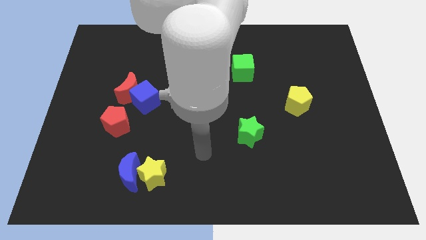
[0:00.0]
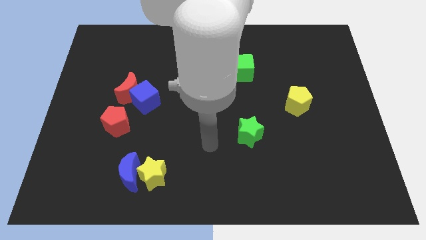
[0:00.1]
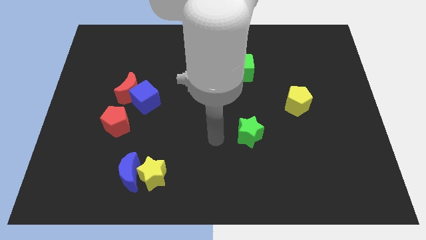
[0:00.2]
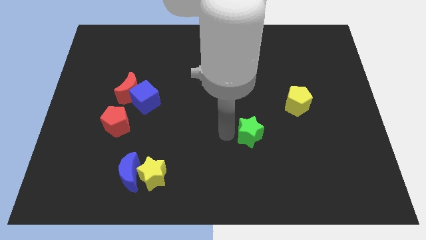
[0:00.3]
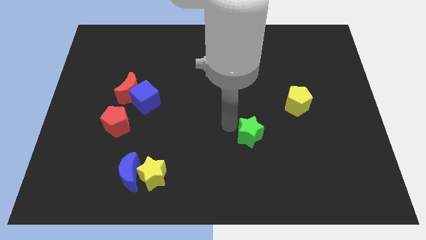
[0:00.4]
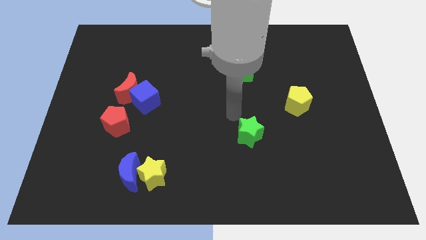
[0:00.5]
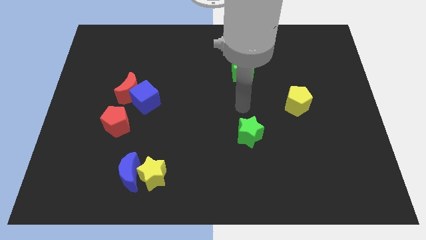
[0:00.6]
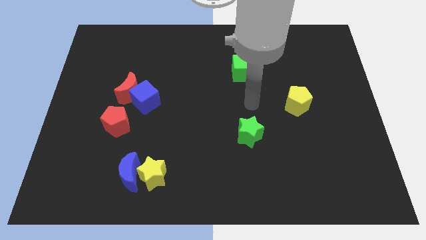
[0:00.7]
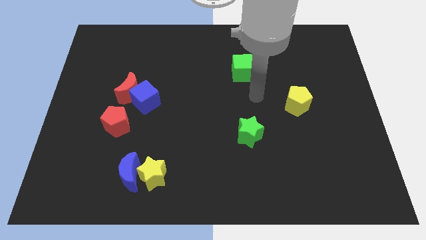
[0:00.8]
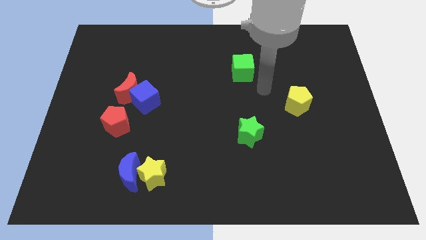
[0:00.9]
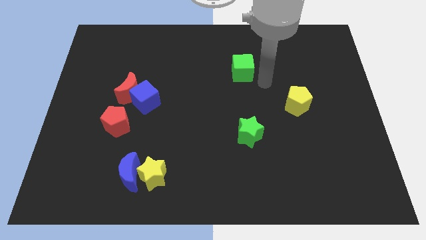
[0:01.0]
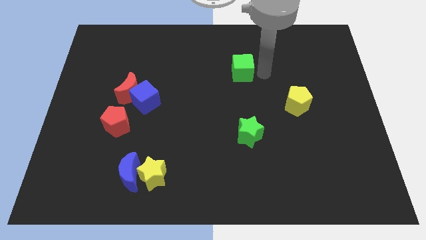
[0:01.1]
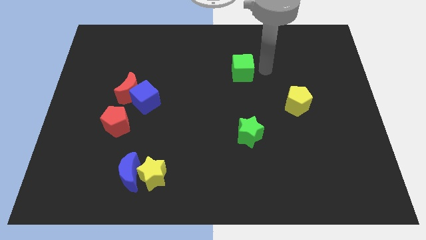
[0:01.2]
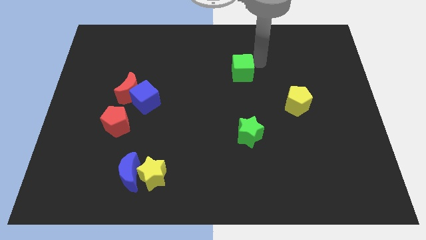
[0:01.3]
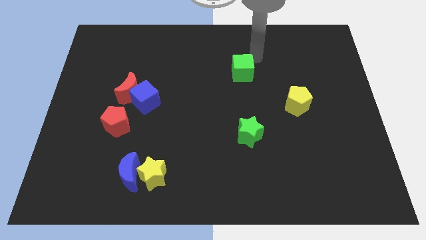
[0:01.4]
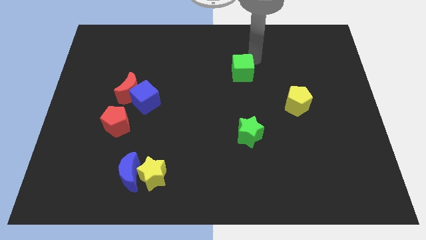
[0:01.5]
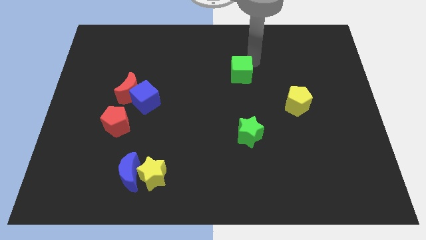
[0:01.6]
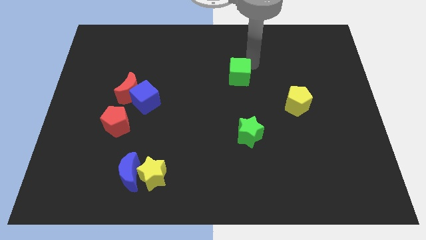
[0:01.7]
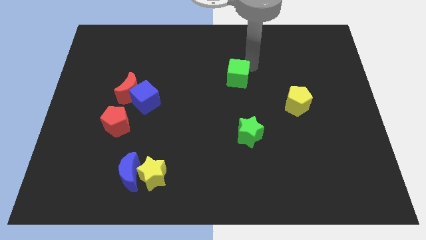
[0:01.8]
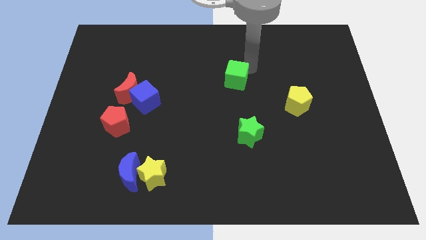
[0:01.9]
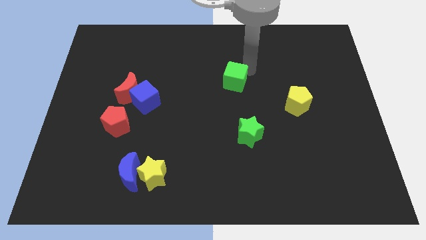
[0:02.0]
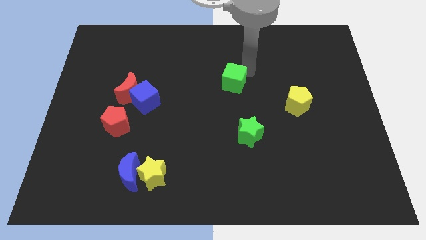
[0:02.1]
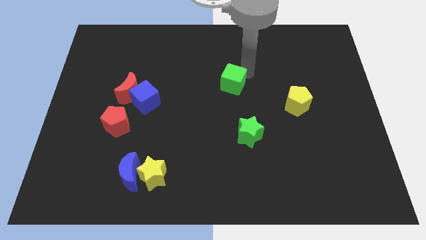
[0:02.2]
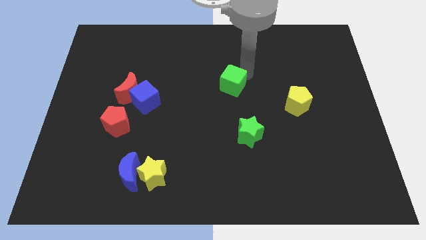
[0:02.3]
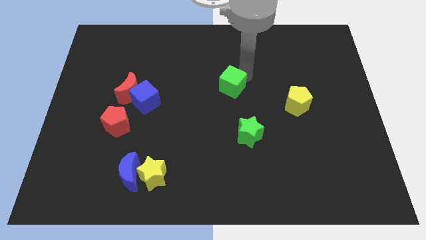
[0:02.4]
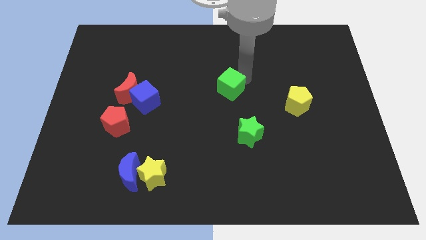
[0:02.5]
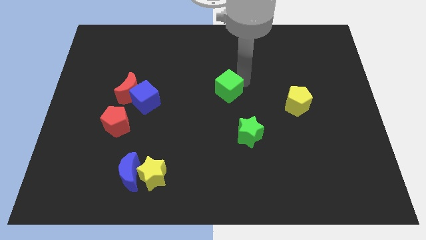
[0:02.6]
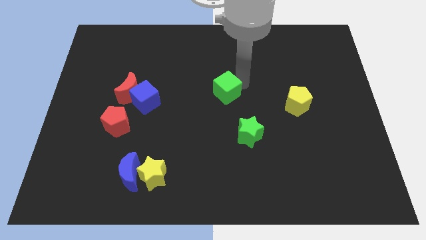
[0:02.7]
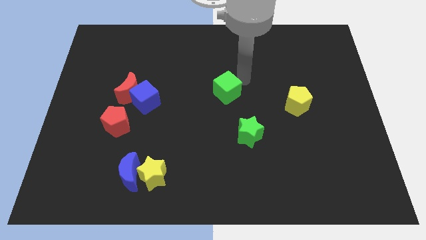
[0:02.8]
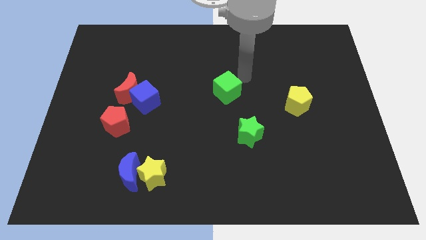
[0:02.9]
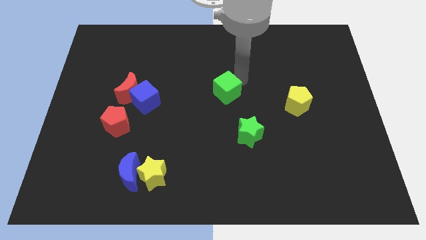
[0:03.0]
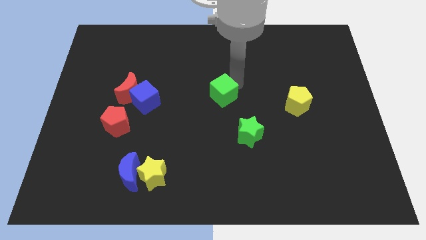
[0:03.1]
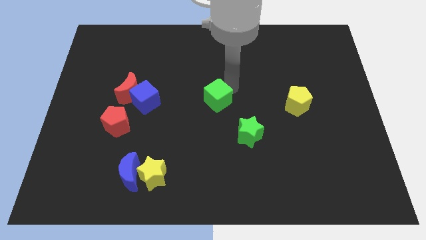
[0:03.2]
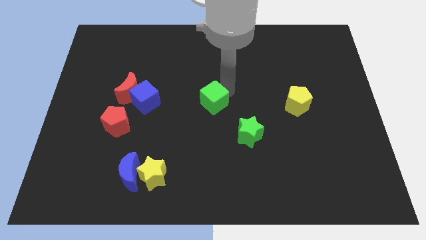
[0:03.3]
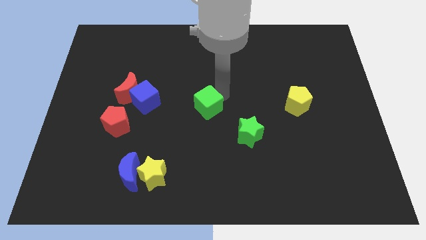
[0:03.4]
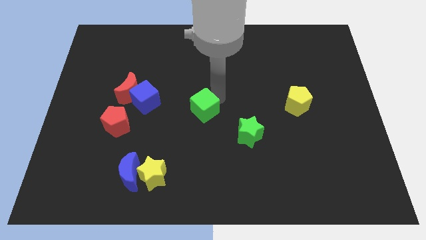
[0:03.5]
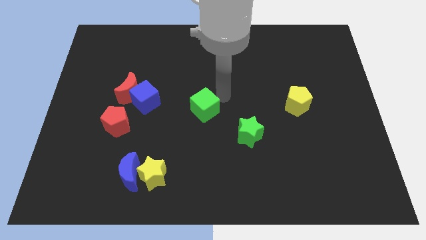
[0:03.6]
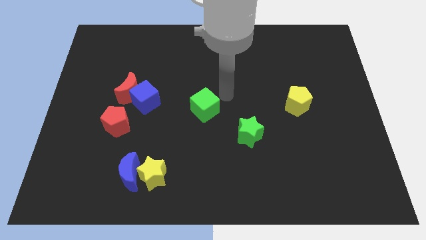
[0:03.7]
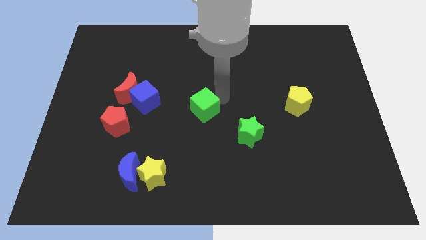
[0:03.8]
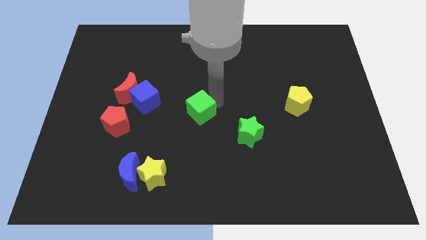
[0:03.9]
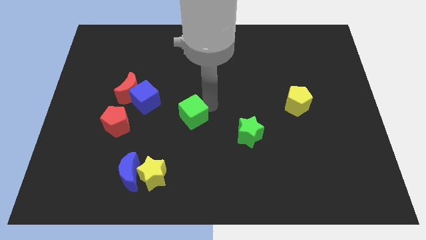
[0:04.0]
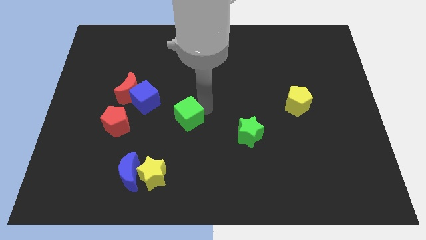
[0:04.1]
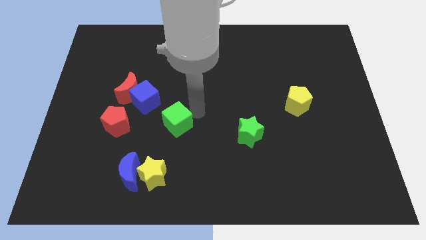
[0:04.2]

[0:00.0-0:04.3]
push the green cube downwards and to the left diagonally

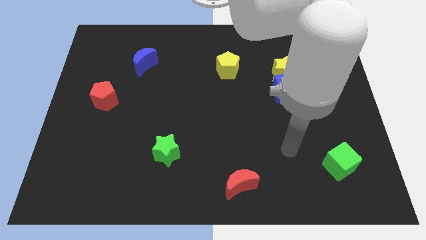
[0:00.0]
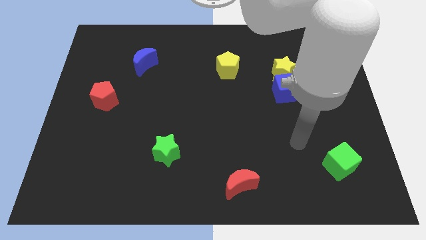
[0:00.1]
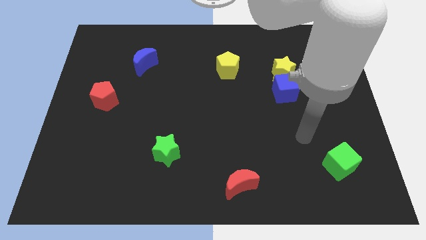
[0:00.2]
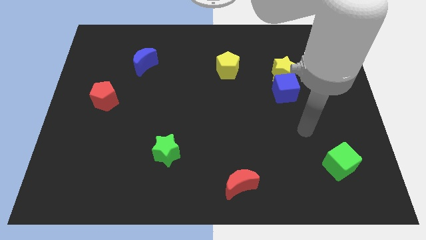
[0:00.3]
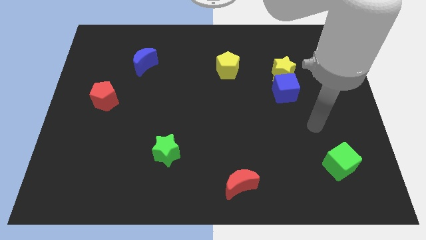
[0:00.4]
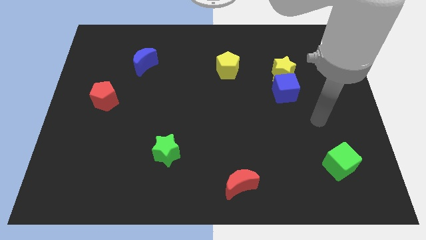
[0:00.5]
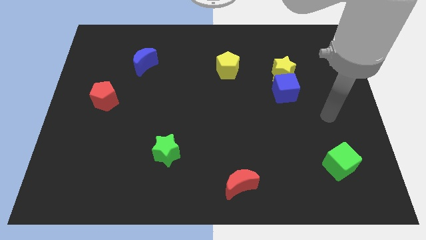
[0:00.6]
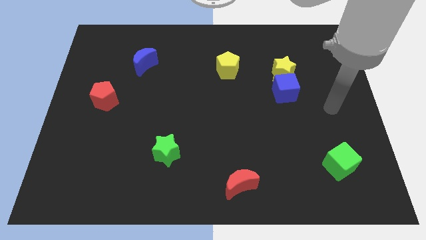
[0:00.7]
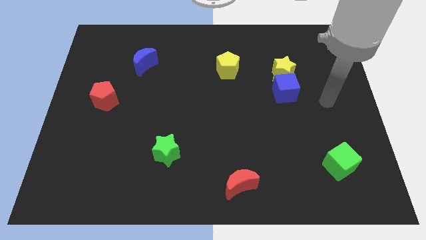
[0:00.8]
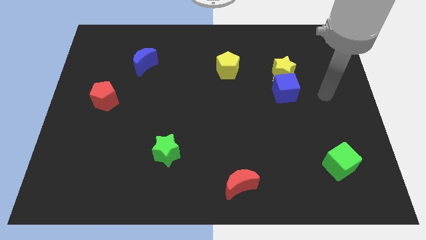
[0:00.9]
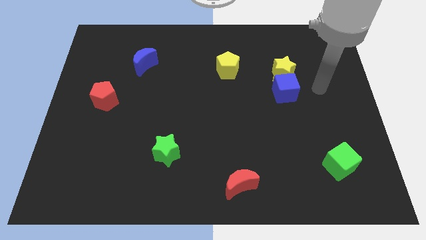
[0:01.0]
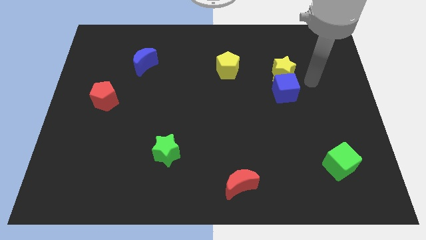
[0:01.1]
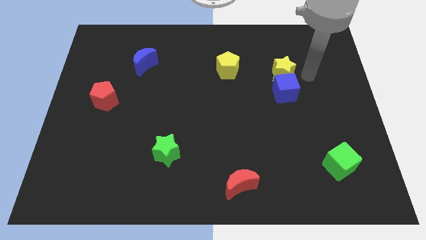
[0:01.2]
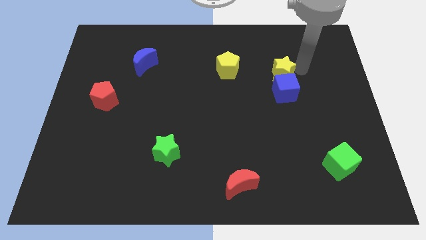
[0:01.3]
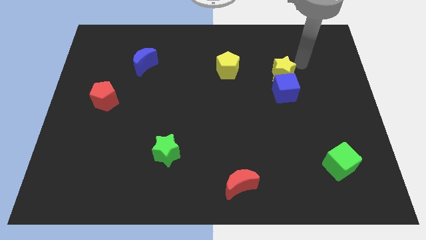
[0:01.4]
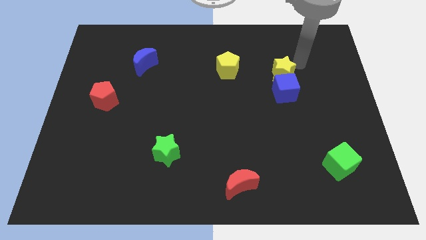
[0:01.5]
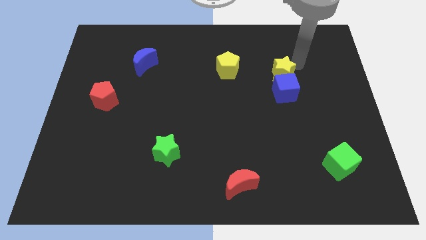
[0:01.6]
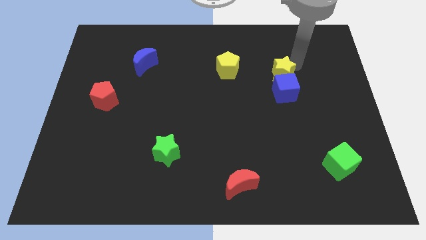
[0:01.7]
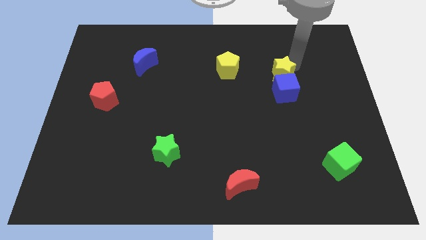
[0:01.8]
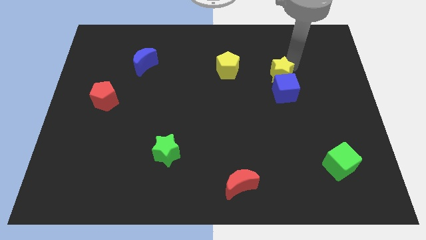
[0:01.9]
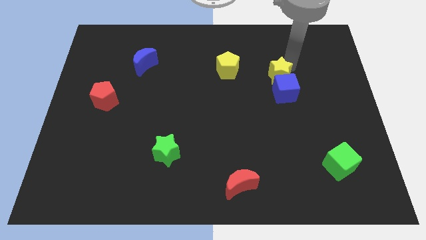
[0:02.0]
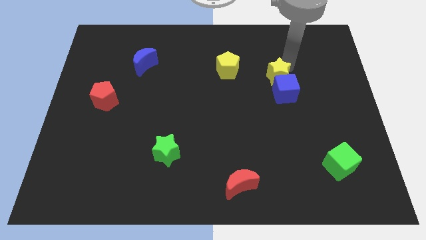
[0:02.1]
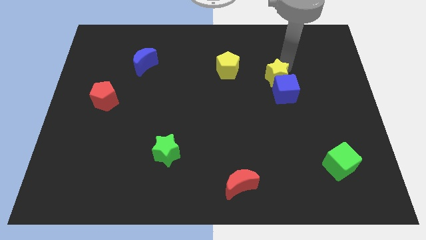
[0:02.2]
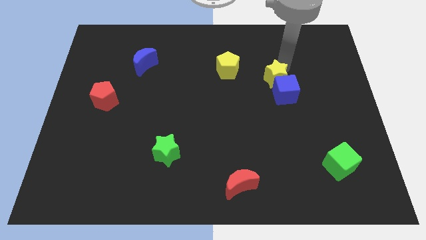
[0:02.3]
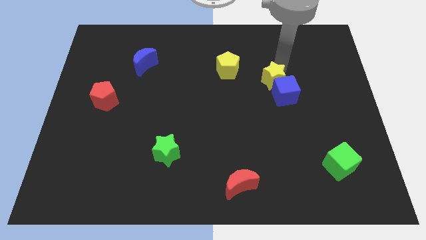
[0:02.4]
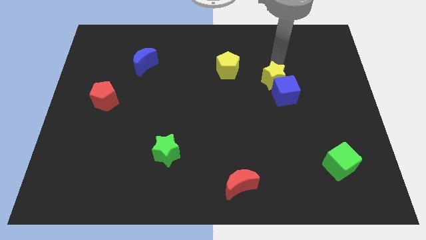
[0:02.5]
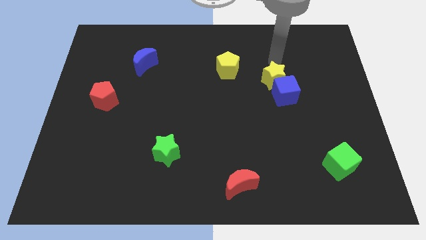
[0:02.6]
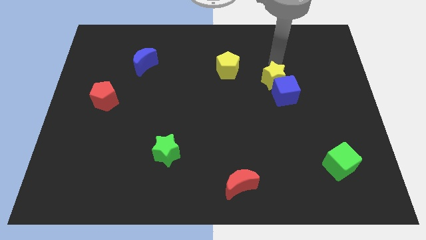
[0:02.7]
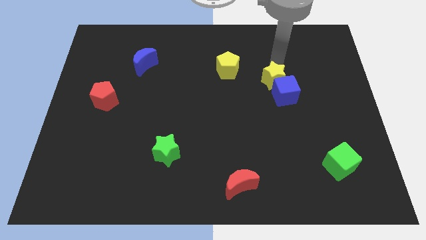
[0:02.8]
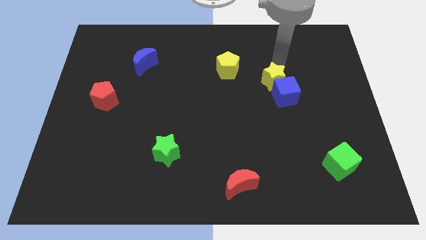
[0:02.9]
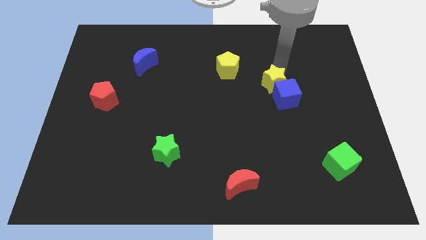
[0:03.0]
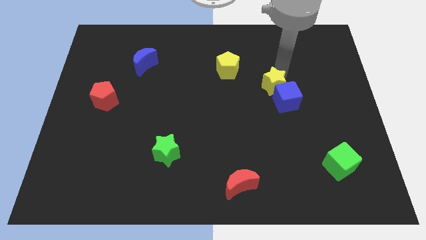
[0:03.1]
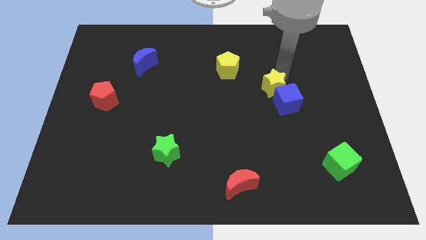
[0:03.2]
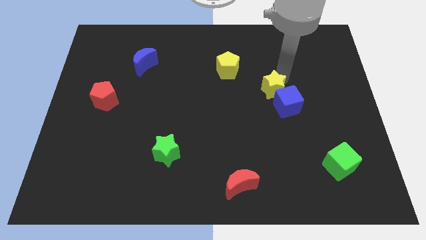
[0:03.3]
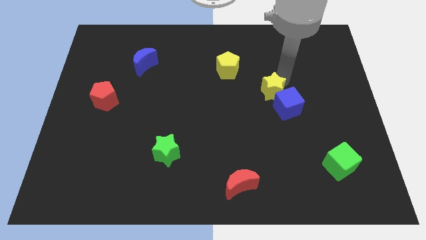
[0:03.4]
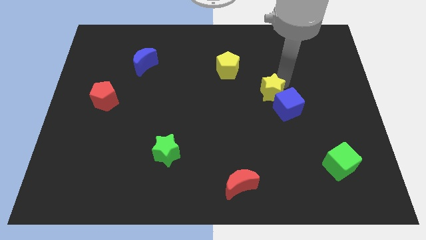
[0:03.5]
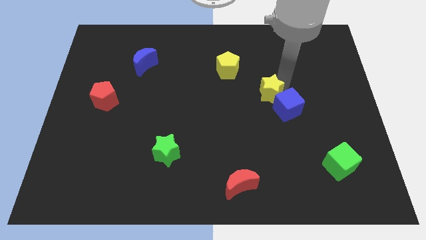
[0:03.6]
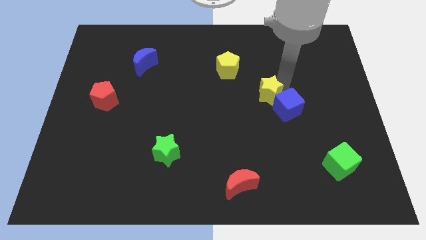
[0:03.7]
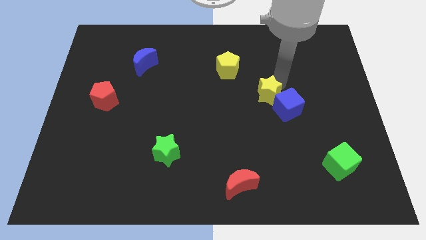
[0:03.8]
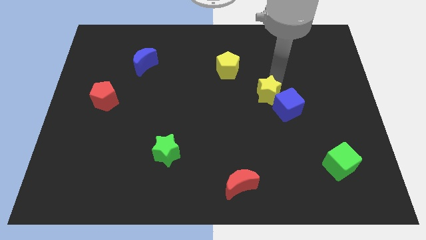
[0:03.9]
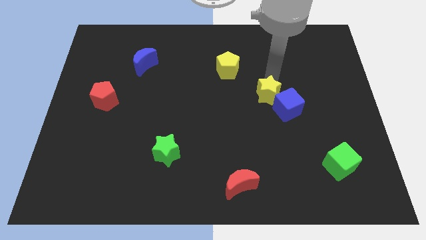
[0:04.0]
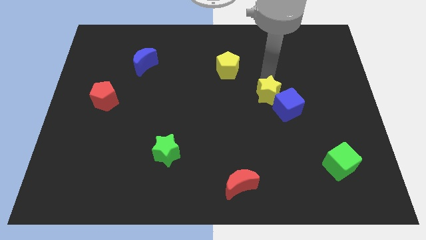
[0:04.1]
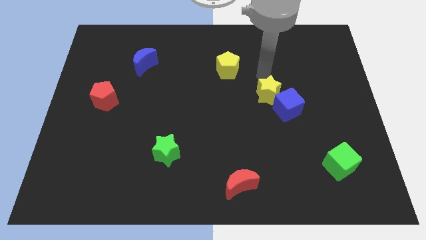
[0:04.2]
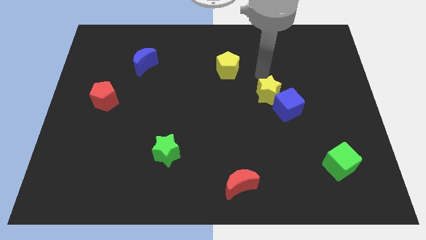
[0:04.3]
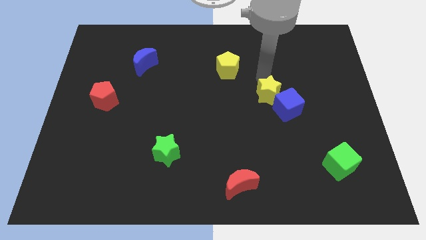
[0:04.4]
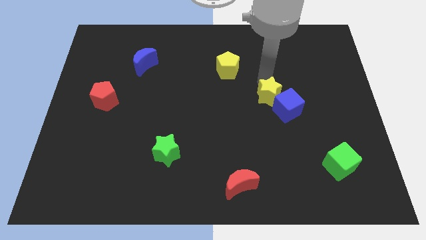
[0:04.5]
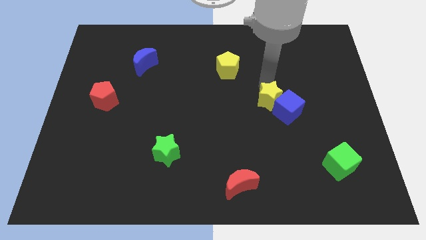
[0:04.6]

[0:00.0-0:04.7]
push the yellow star a bit down
